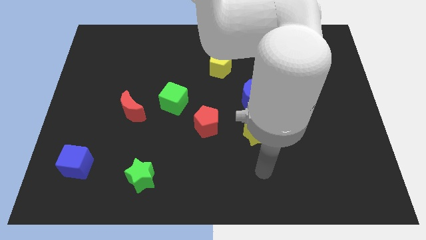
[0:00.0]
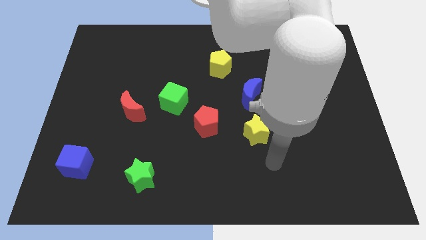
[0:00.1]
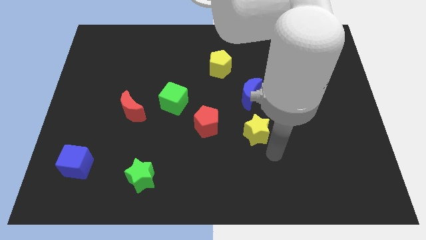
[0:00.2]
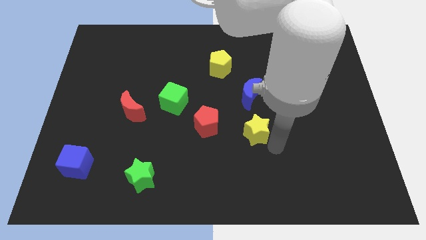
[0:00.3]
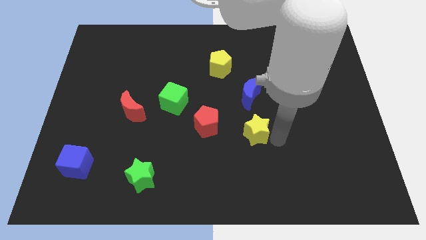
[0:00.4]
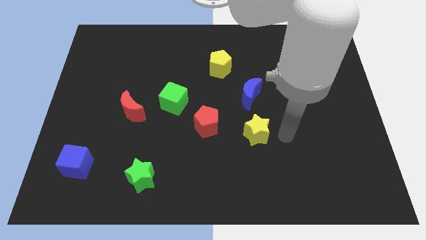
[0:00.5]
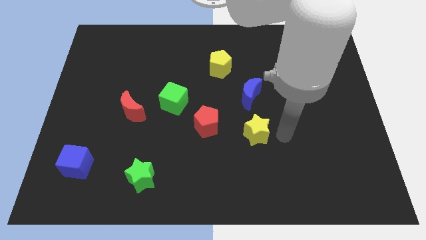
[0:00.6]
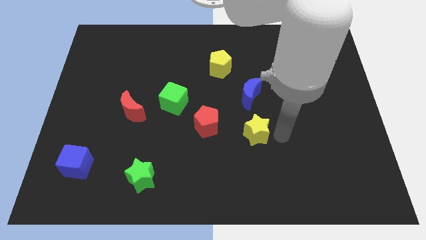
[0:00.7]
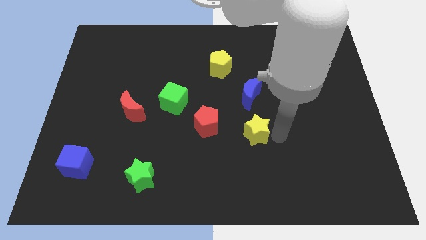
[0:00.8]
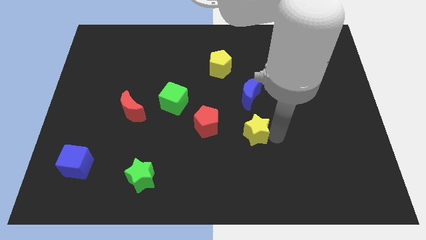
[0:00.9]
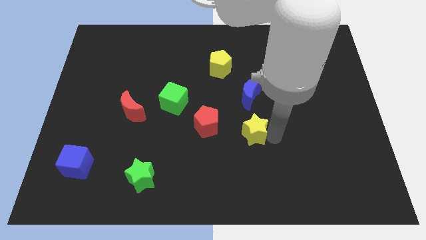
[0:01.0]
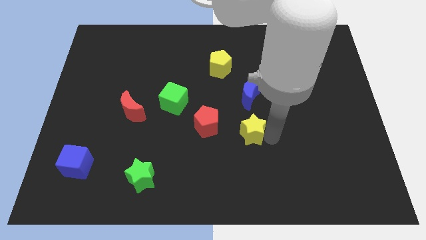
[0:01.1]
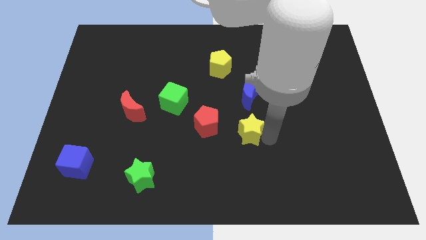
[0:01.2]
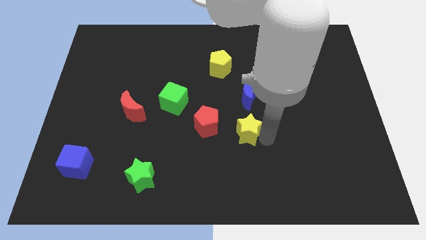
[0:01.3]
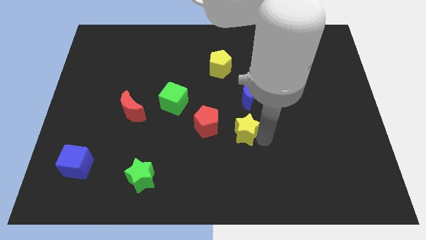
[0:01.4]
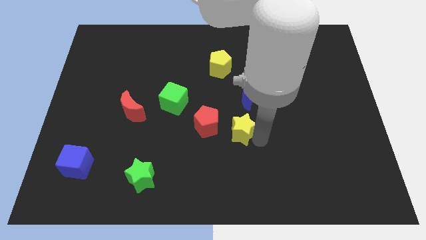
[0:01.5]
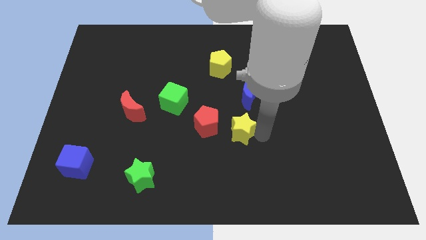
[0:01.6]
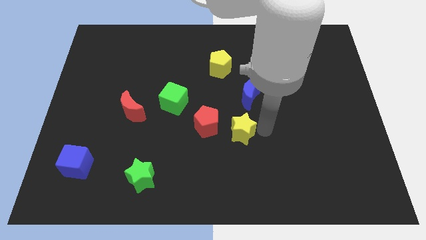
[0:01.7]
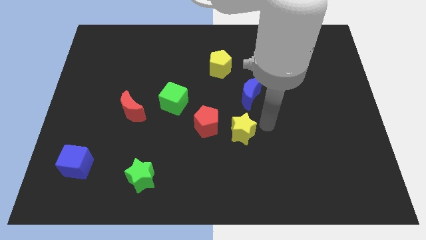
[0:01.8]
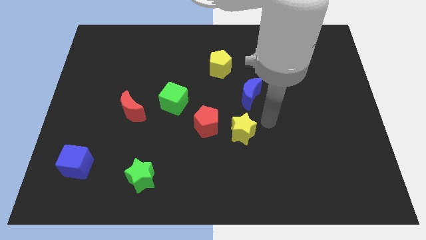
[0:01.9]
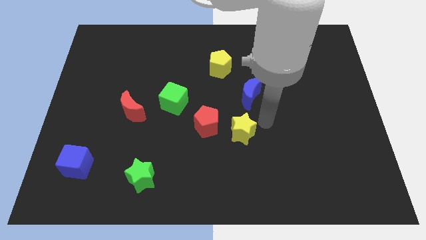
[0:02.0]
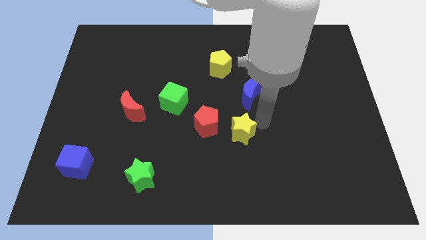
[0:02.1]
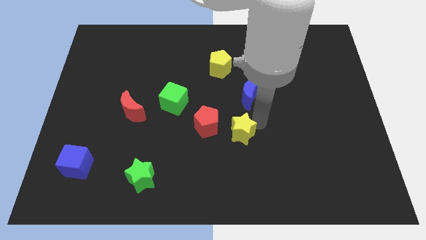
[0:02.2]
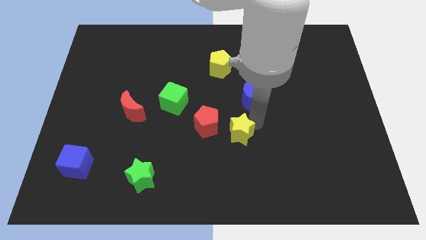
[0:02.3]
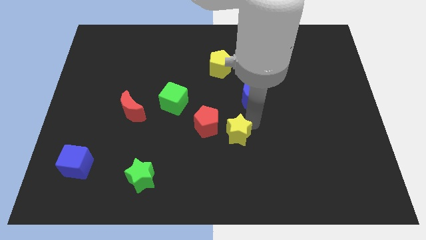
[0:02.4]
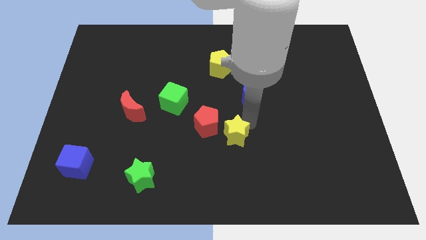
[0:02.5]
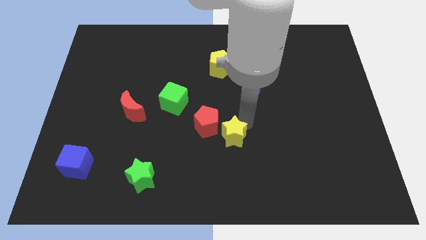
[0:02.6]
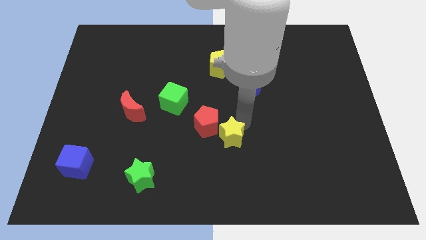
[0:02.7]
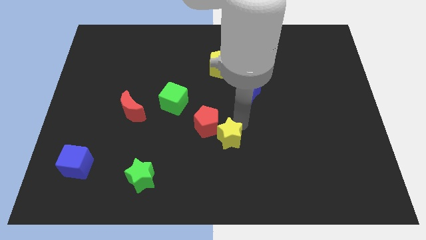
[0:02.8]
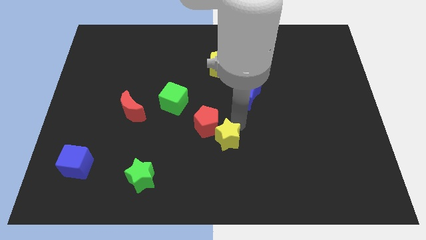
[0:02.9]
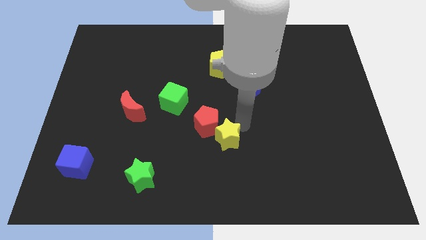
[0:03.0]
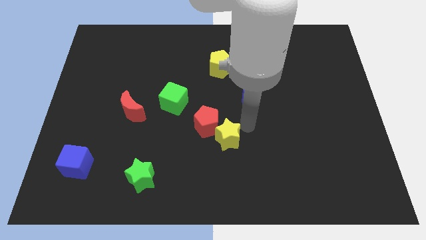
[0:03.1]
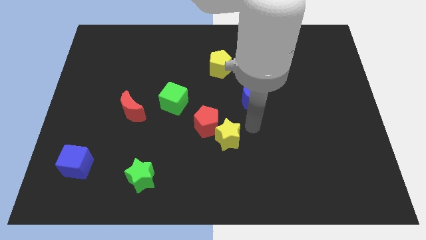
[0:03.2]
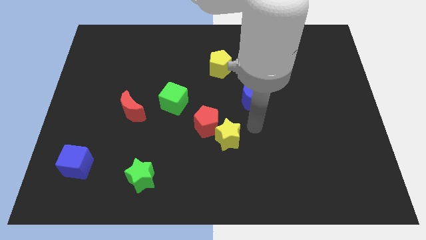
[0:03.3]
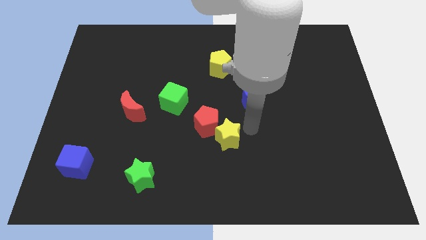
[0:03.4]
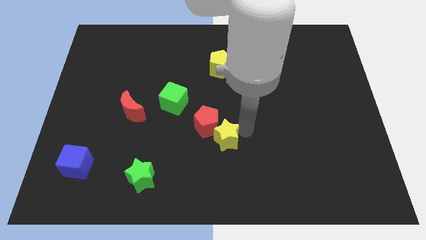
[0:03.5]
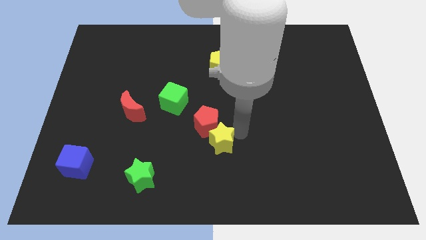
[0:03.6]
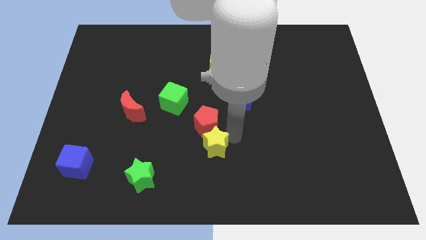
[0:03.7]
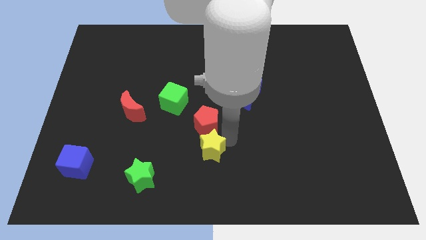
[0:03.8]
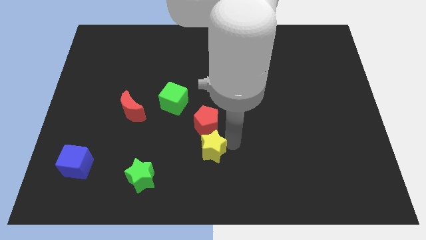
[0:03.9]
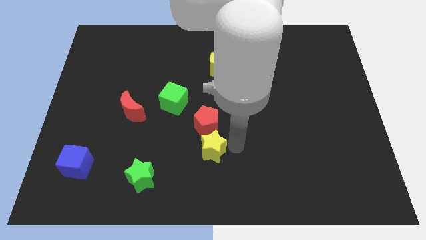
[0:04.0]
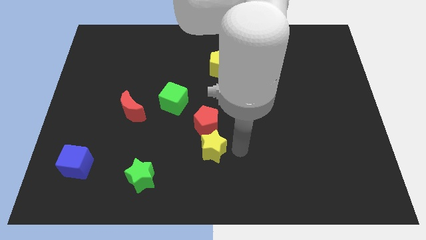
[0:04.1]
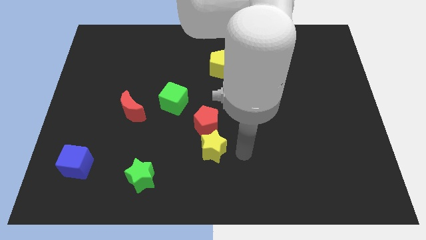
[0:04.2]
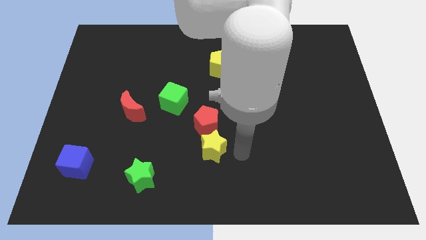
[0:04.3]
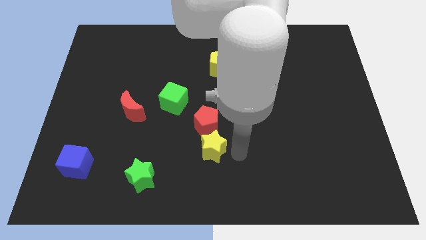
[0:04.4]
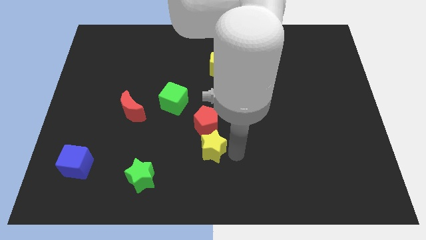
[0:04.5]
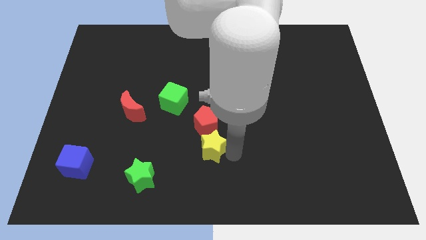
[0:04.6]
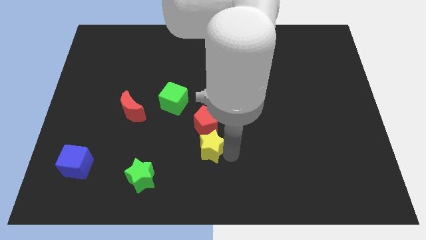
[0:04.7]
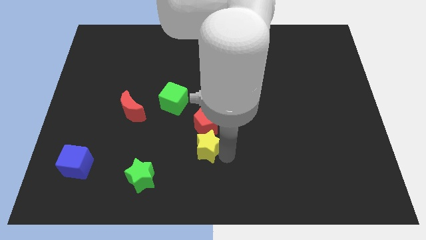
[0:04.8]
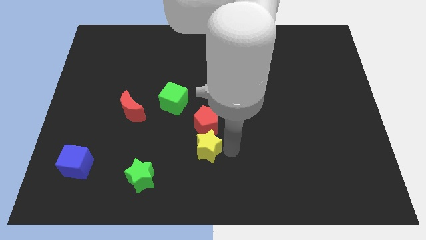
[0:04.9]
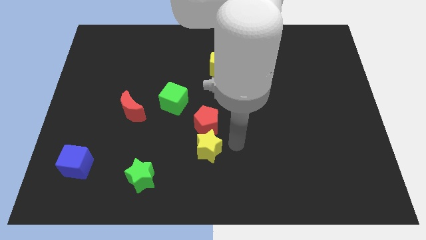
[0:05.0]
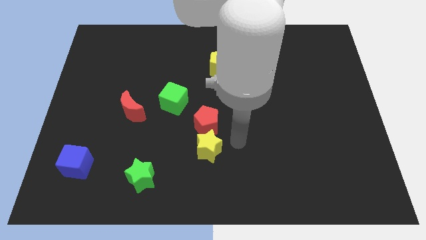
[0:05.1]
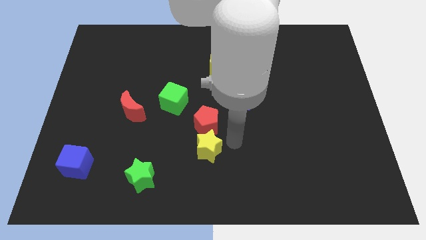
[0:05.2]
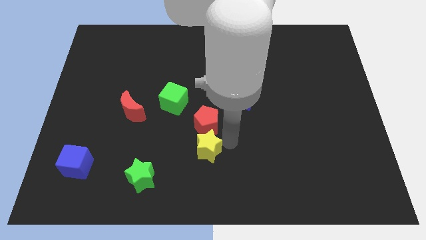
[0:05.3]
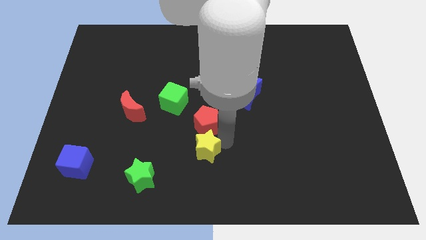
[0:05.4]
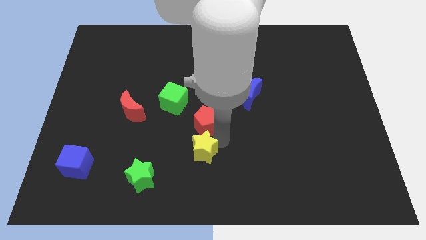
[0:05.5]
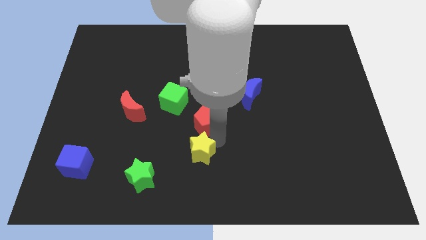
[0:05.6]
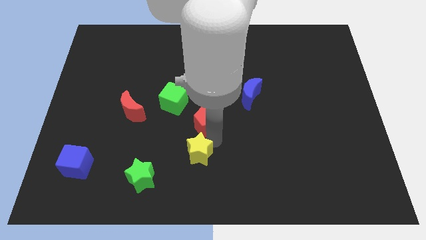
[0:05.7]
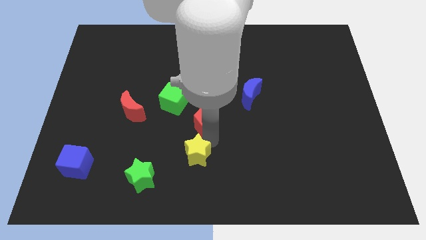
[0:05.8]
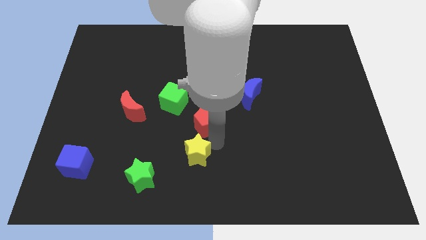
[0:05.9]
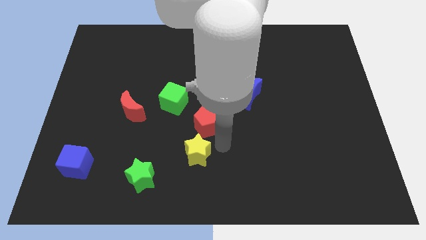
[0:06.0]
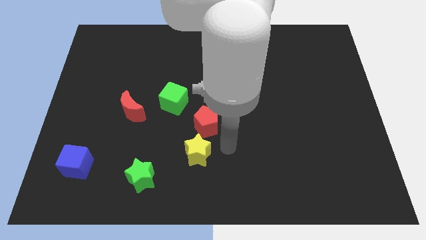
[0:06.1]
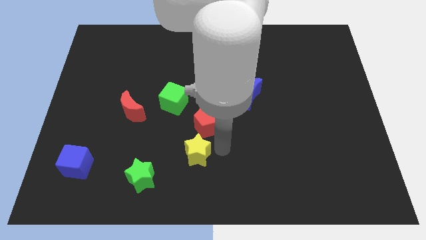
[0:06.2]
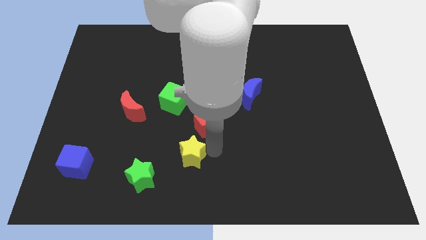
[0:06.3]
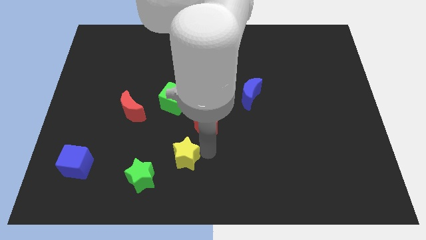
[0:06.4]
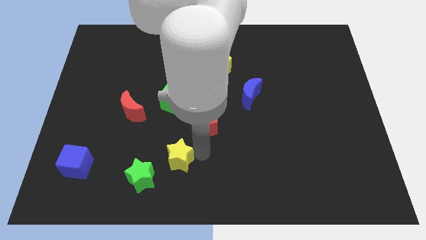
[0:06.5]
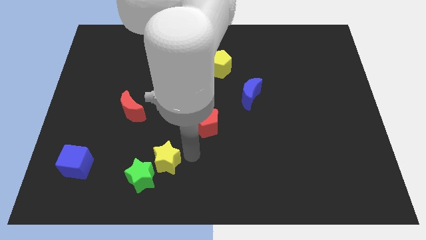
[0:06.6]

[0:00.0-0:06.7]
move the yellow star towards the green star
